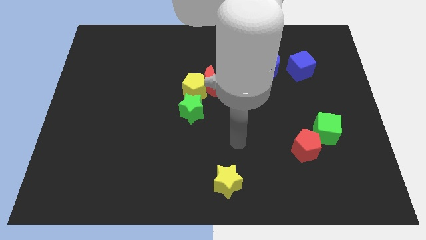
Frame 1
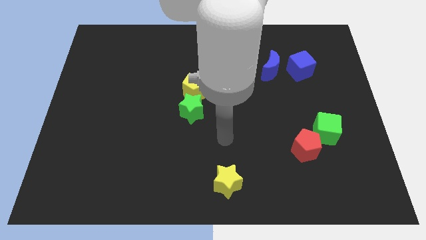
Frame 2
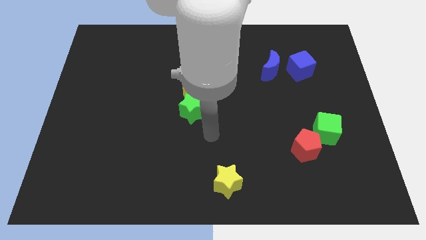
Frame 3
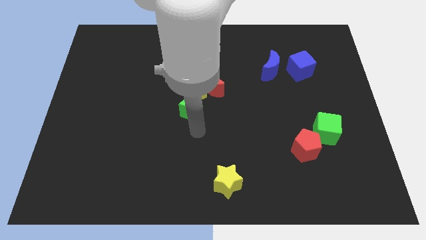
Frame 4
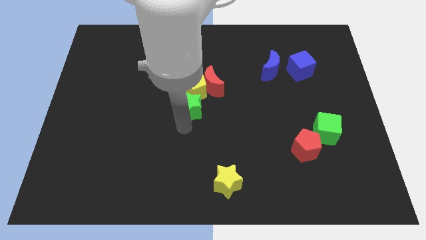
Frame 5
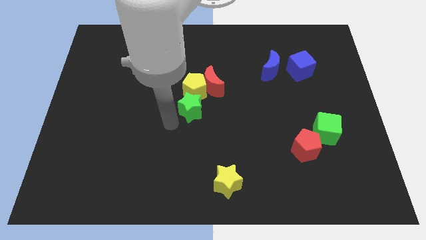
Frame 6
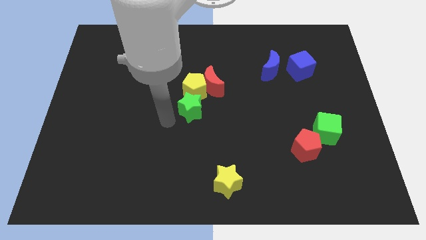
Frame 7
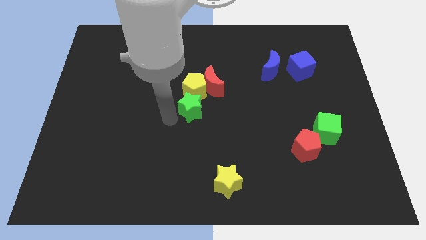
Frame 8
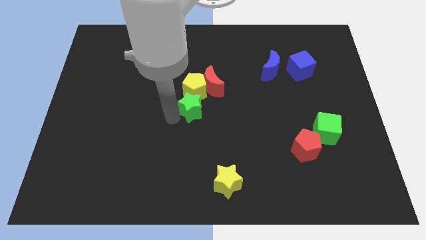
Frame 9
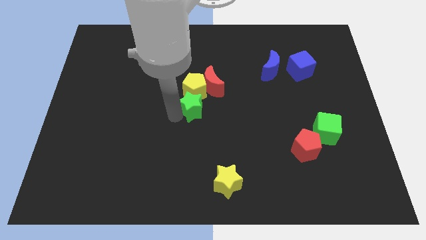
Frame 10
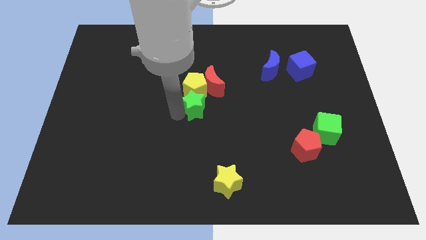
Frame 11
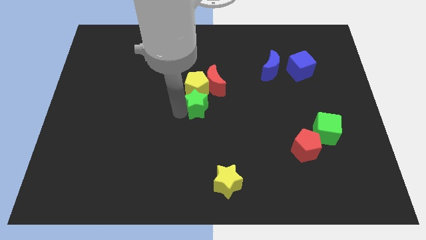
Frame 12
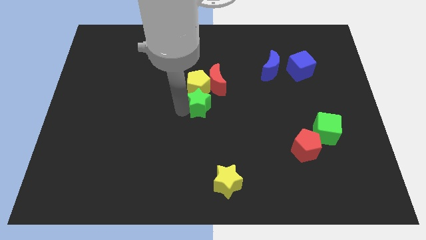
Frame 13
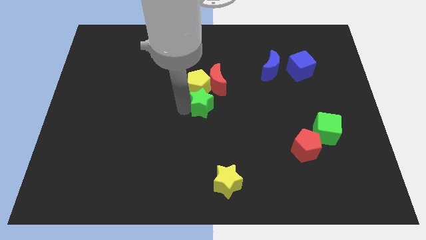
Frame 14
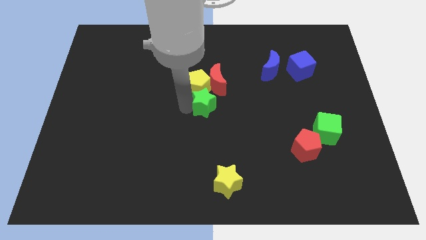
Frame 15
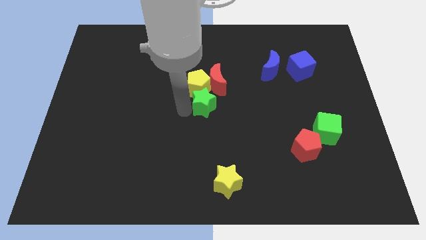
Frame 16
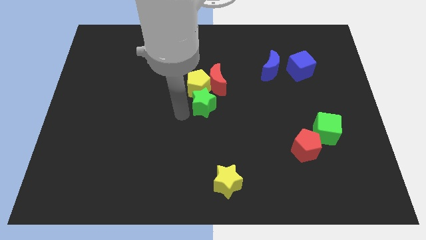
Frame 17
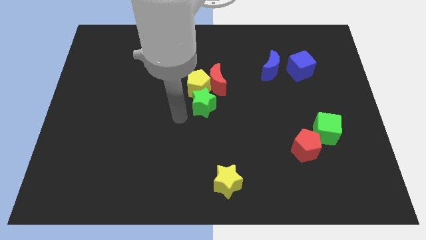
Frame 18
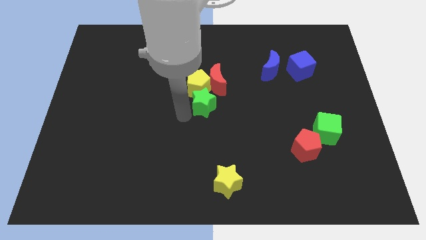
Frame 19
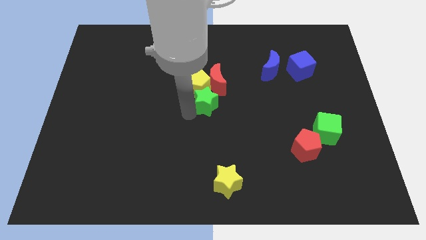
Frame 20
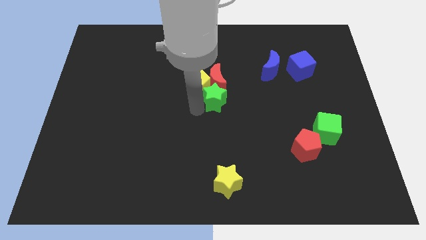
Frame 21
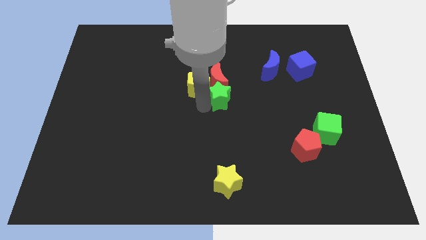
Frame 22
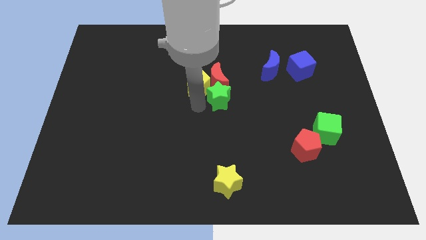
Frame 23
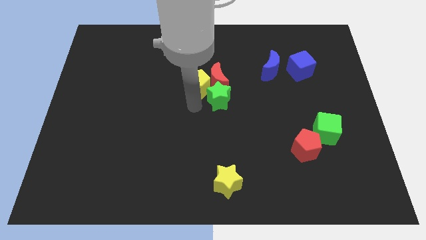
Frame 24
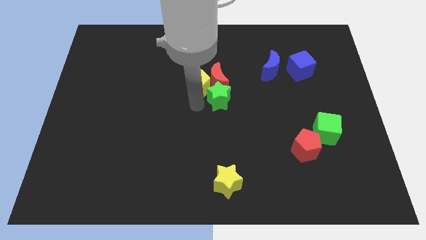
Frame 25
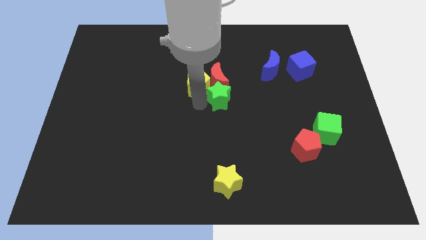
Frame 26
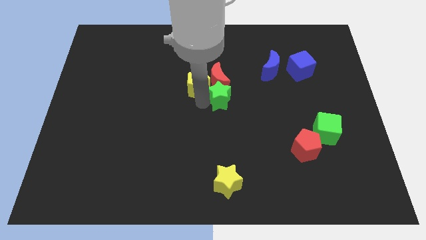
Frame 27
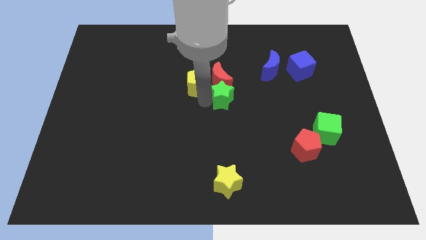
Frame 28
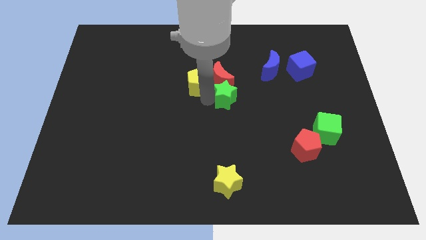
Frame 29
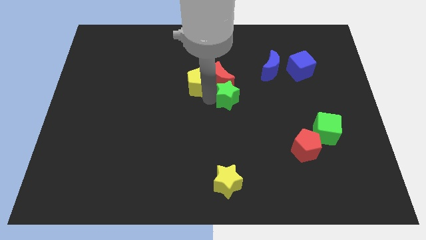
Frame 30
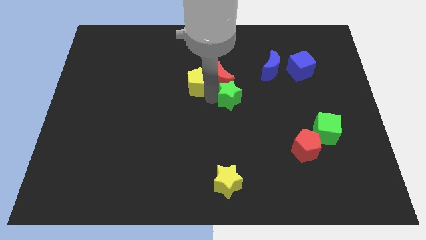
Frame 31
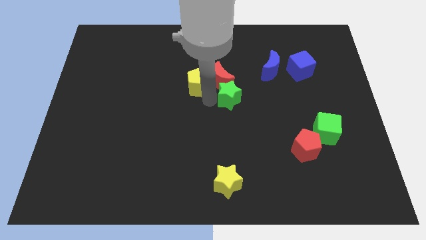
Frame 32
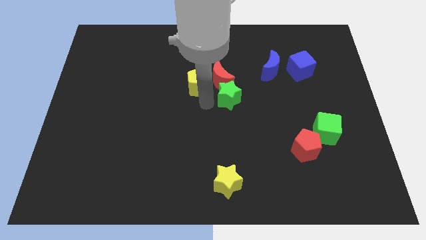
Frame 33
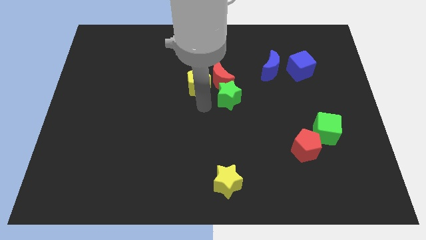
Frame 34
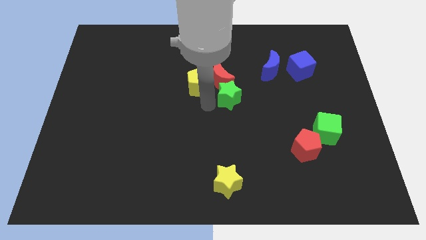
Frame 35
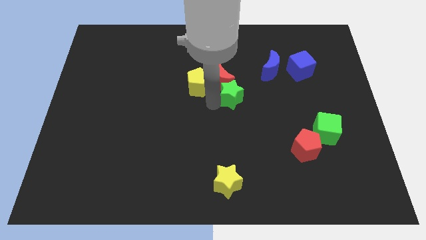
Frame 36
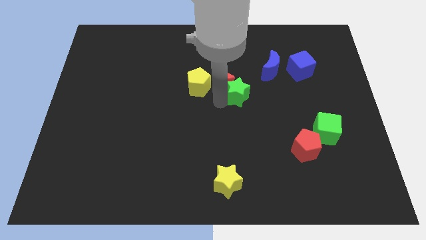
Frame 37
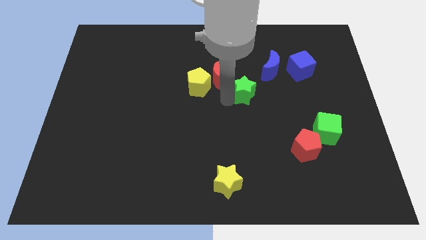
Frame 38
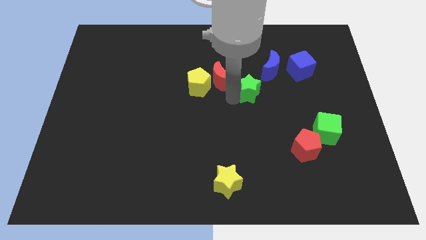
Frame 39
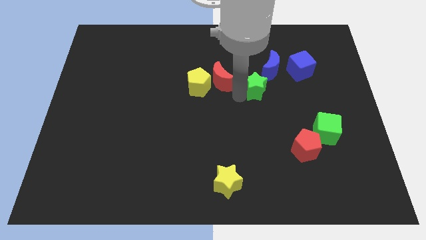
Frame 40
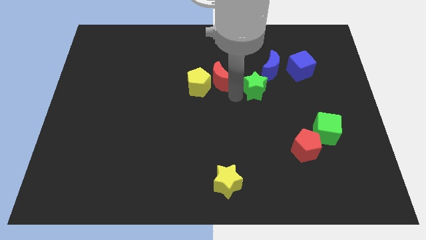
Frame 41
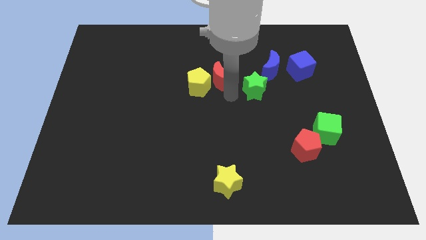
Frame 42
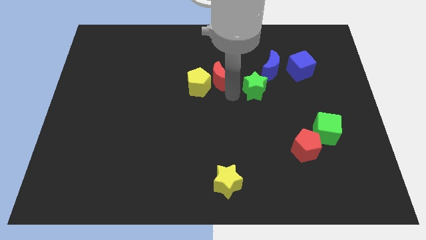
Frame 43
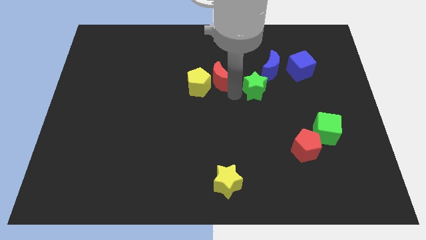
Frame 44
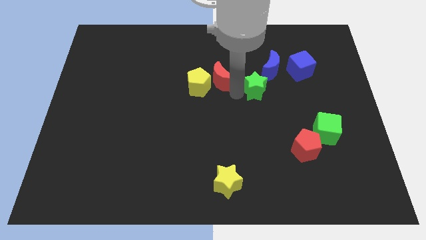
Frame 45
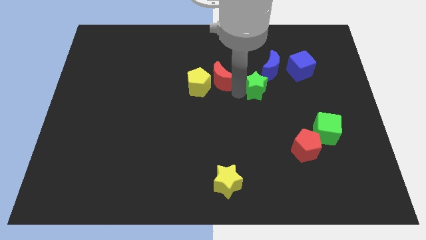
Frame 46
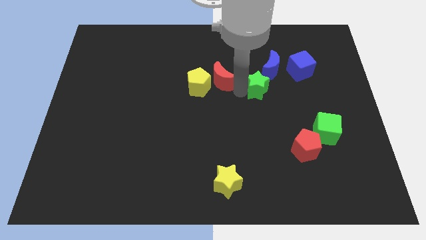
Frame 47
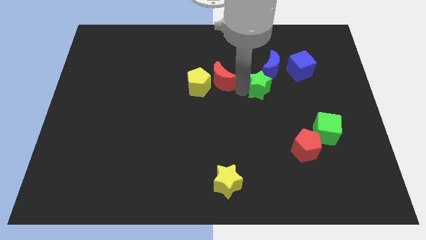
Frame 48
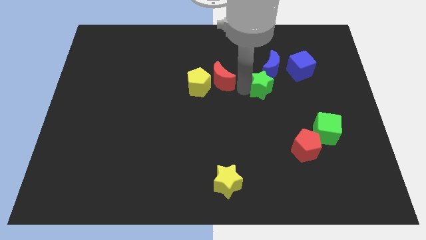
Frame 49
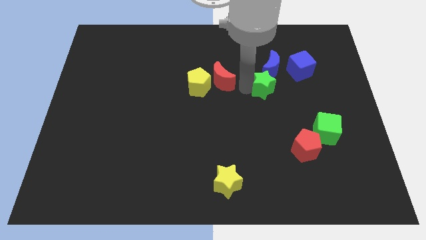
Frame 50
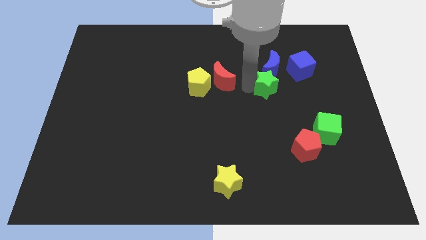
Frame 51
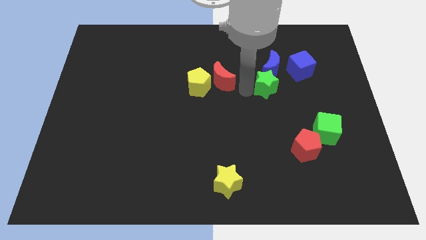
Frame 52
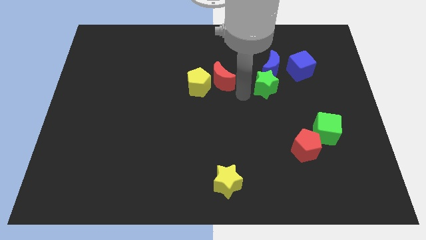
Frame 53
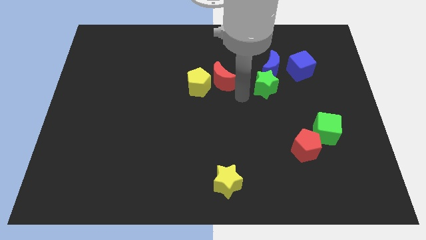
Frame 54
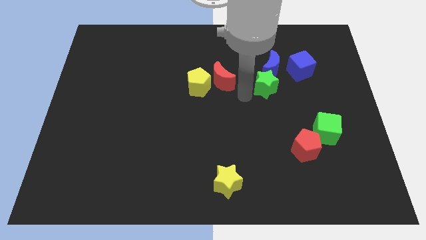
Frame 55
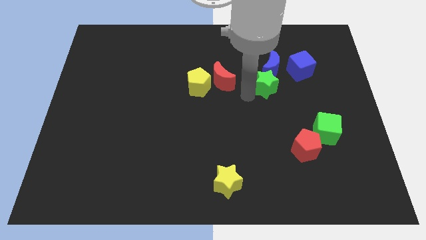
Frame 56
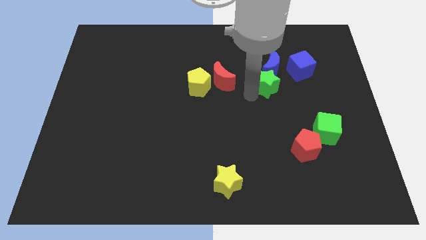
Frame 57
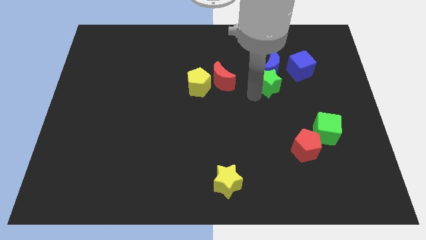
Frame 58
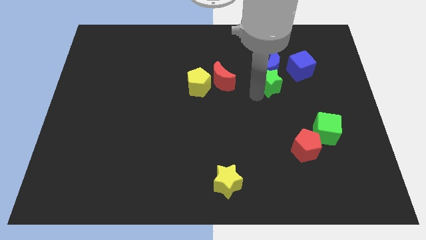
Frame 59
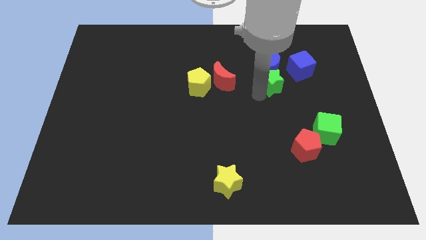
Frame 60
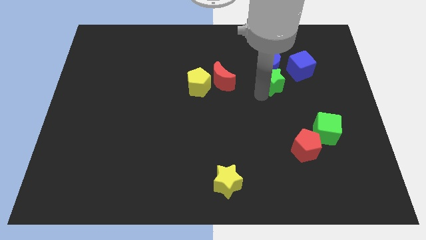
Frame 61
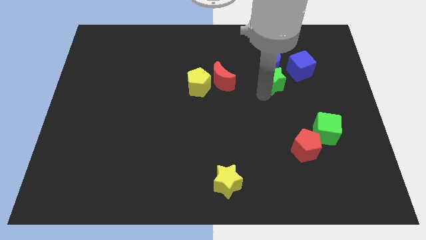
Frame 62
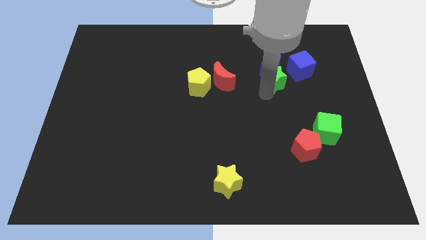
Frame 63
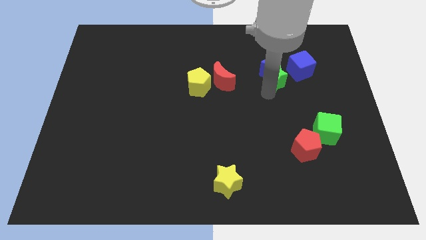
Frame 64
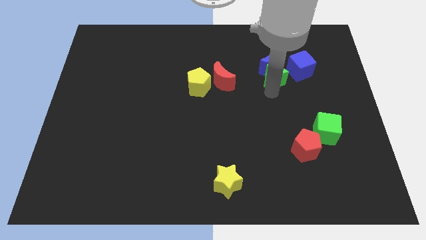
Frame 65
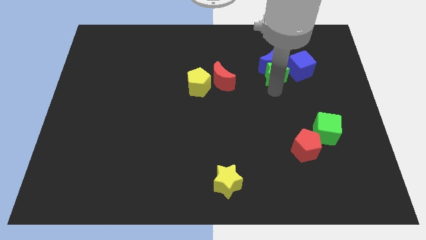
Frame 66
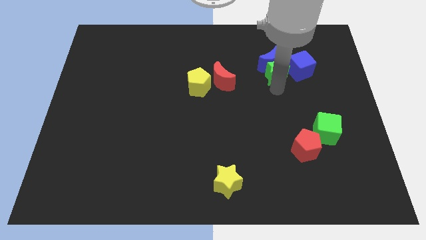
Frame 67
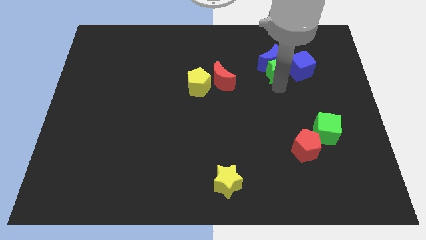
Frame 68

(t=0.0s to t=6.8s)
push the green star to the blue cube

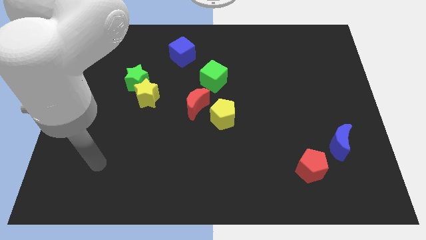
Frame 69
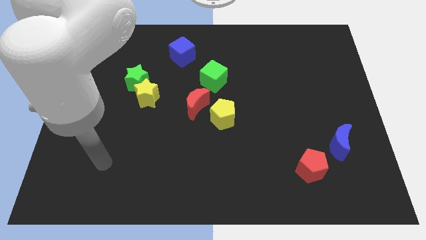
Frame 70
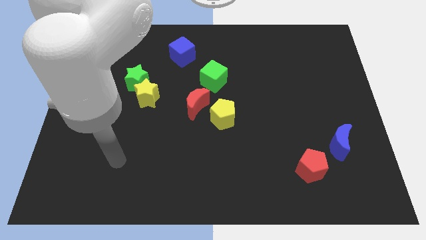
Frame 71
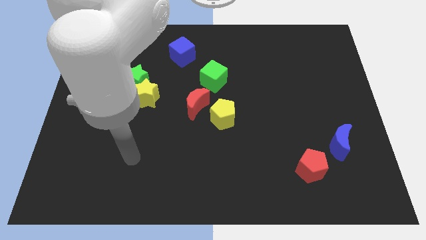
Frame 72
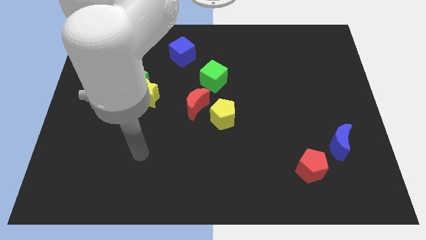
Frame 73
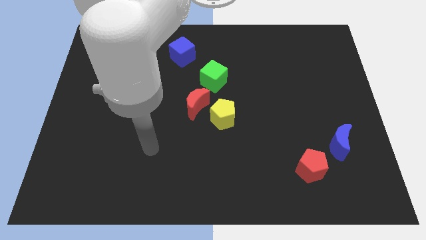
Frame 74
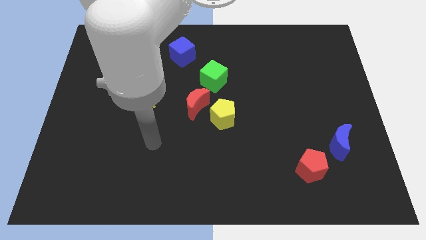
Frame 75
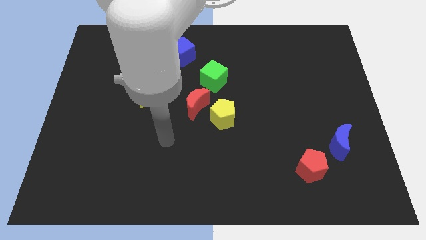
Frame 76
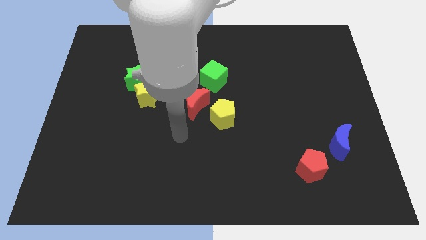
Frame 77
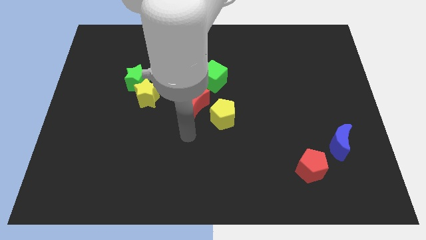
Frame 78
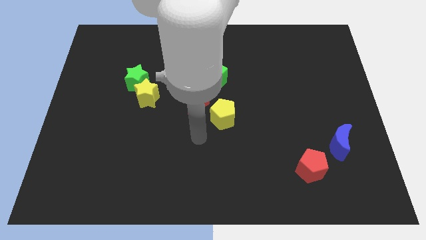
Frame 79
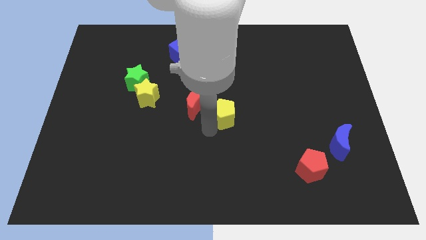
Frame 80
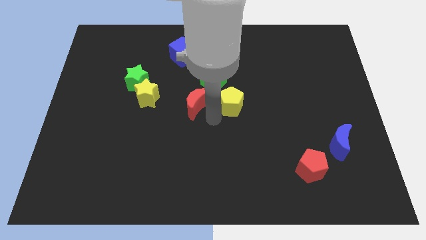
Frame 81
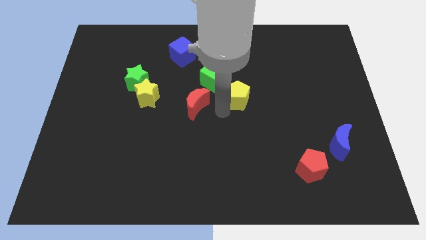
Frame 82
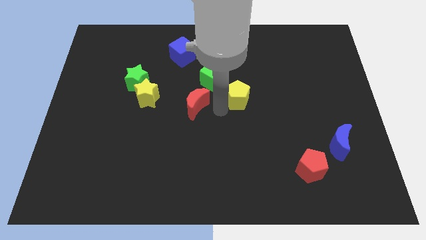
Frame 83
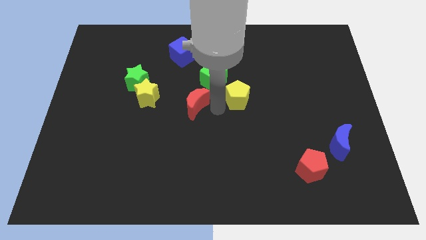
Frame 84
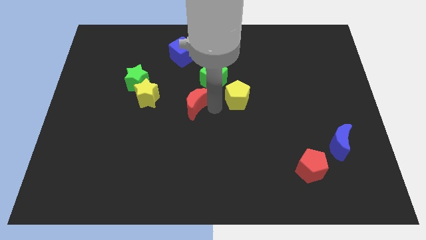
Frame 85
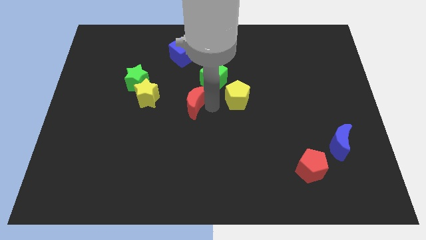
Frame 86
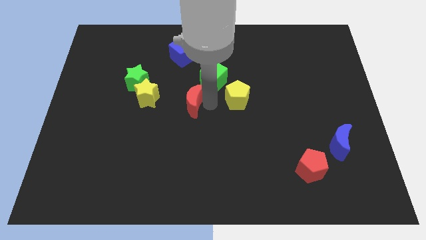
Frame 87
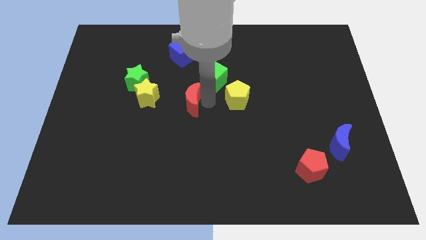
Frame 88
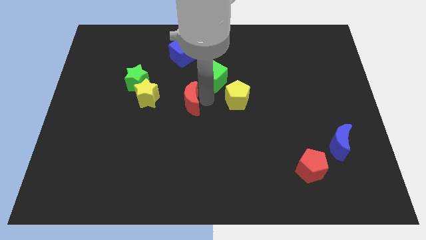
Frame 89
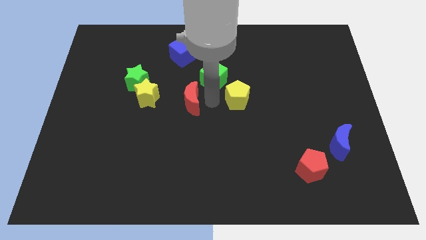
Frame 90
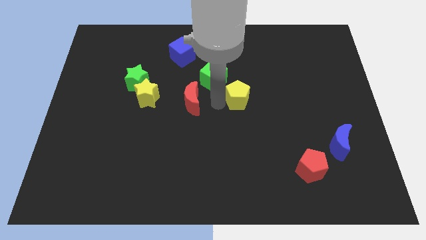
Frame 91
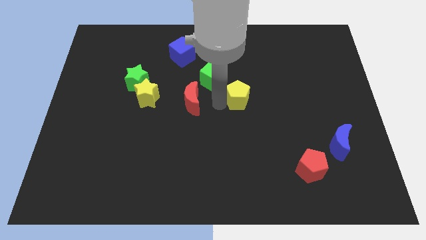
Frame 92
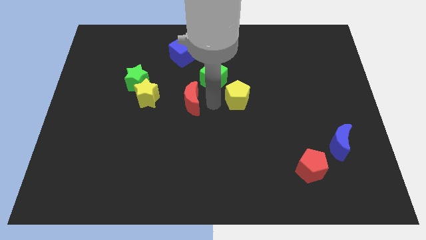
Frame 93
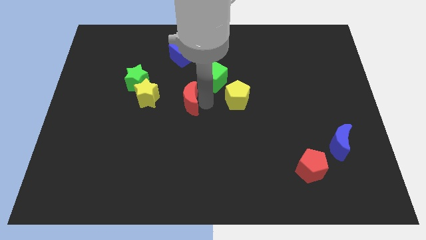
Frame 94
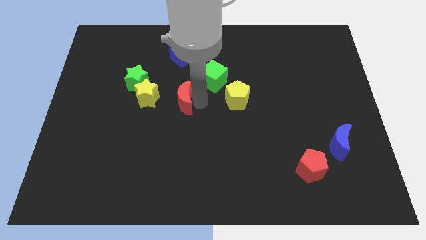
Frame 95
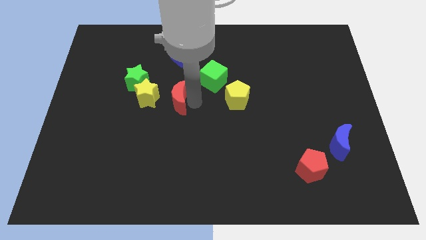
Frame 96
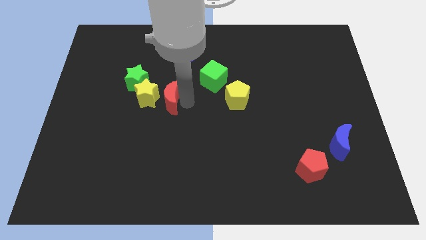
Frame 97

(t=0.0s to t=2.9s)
move the red moon to the yellow star
